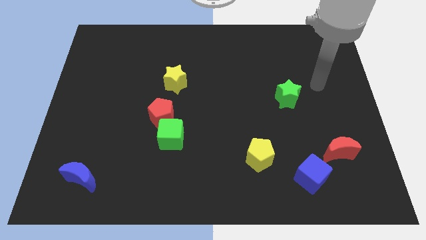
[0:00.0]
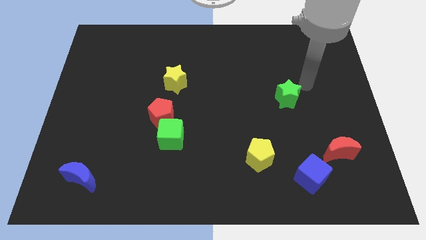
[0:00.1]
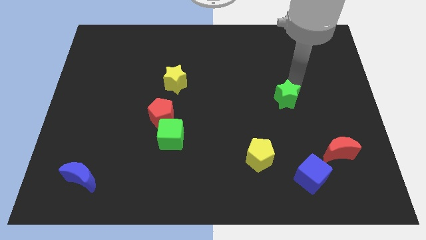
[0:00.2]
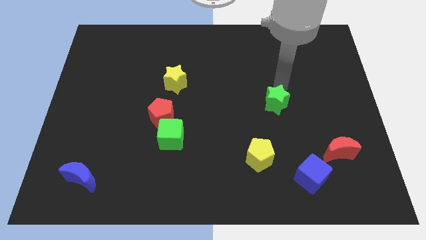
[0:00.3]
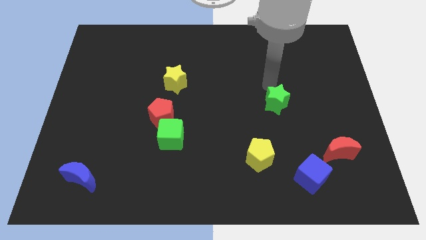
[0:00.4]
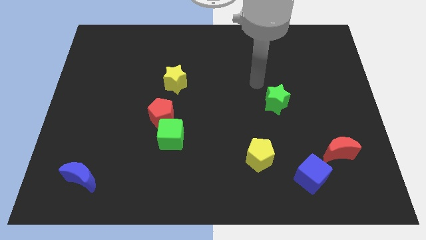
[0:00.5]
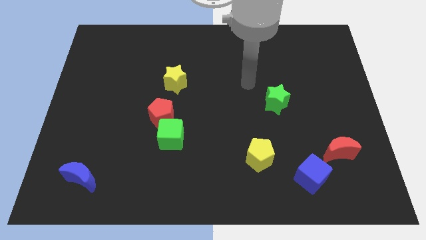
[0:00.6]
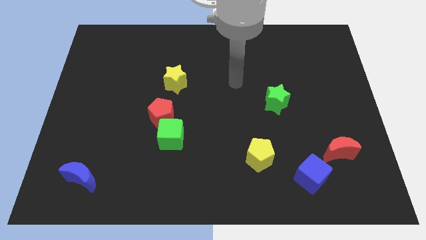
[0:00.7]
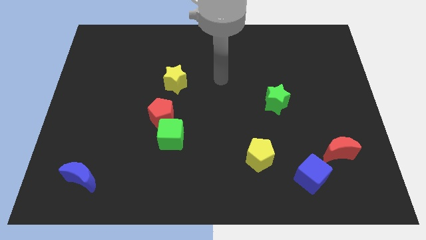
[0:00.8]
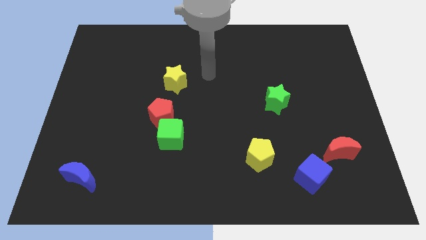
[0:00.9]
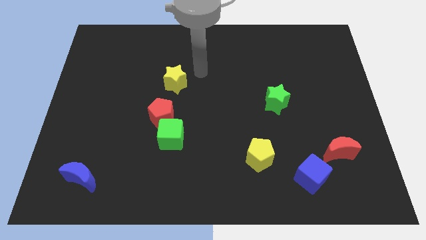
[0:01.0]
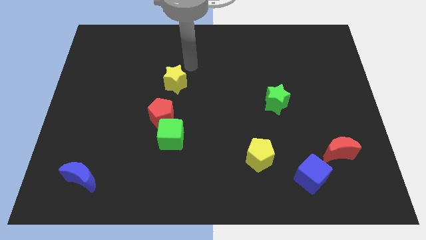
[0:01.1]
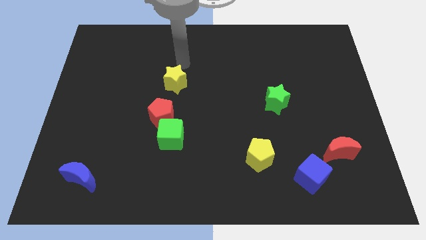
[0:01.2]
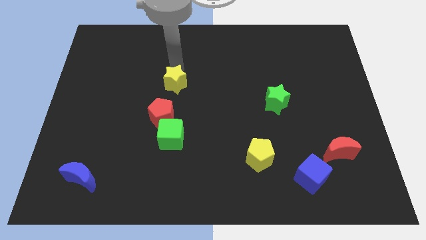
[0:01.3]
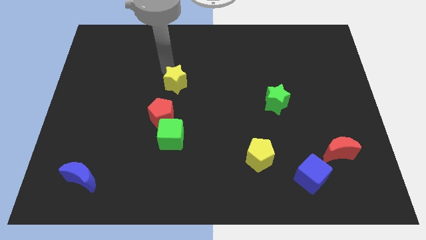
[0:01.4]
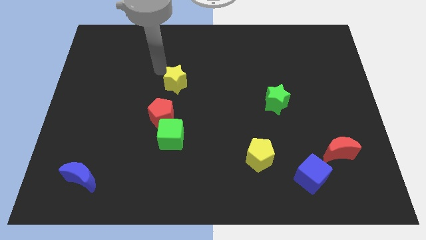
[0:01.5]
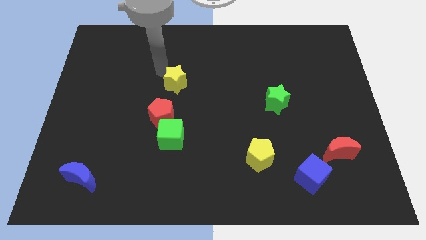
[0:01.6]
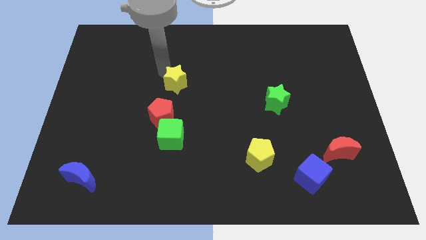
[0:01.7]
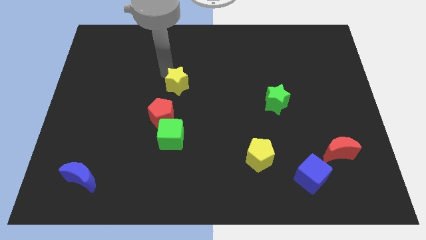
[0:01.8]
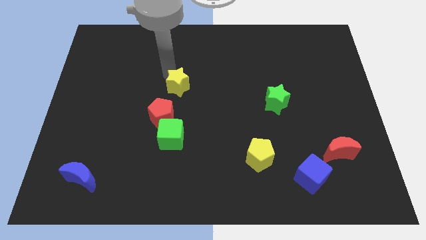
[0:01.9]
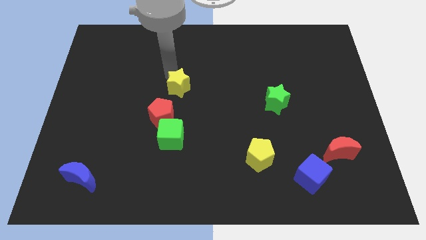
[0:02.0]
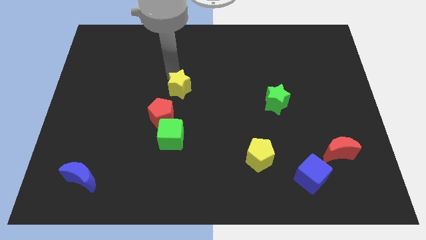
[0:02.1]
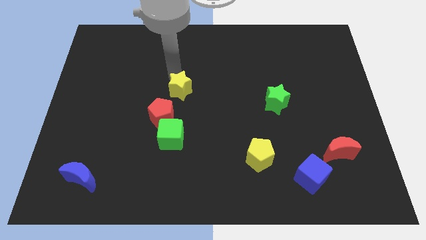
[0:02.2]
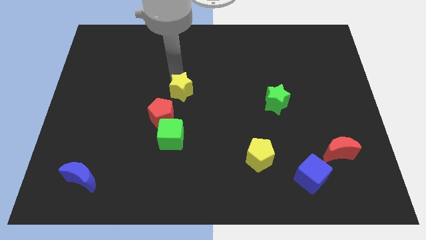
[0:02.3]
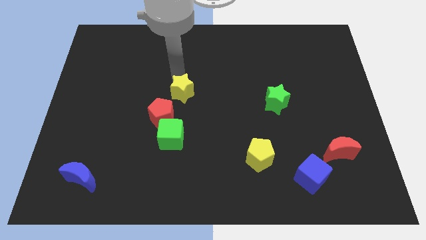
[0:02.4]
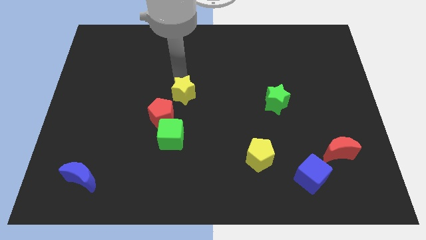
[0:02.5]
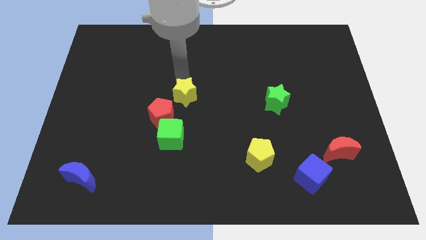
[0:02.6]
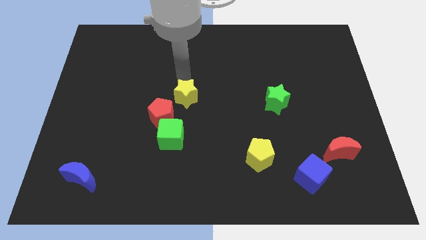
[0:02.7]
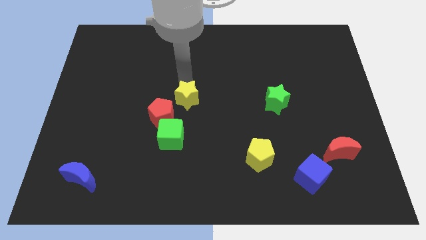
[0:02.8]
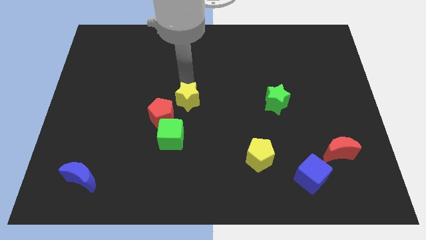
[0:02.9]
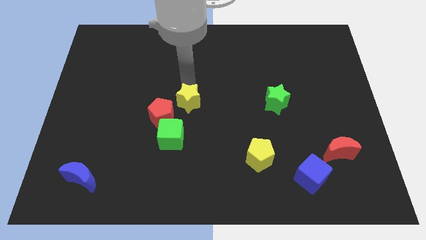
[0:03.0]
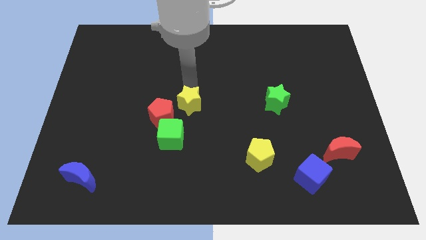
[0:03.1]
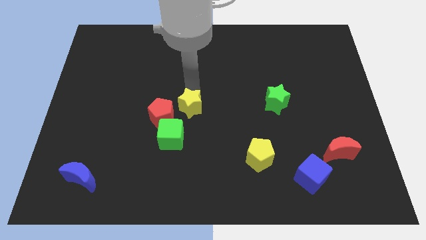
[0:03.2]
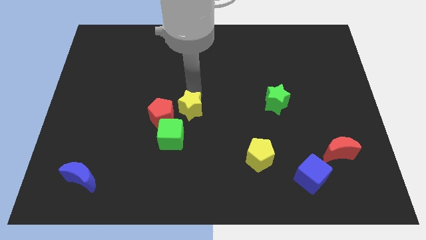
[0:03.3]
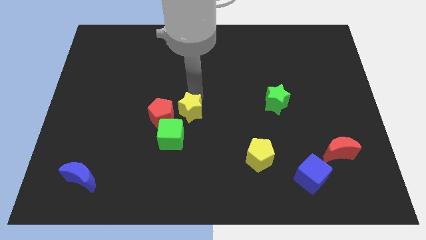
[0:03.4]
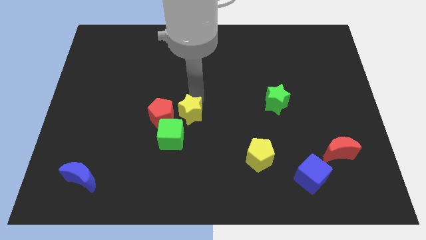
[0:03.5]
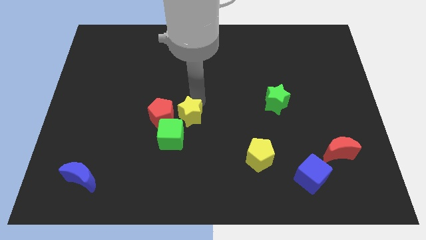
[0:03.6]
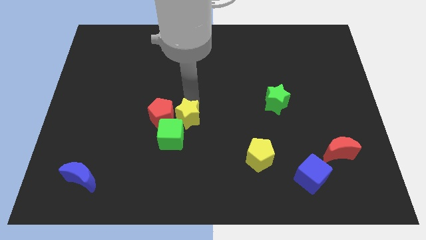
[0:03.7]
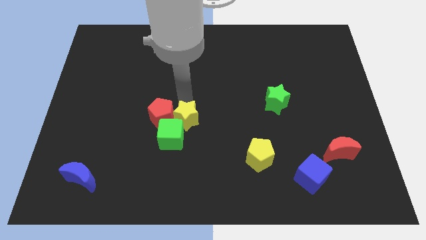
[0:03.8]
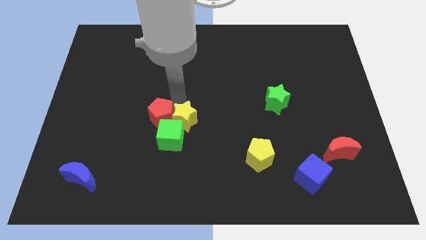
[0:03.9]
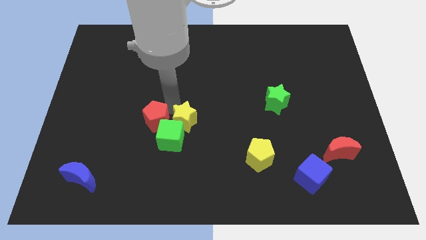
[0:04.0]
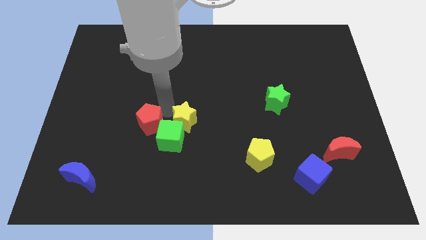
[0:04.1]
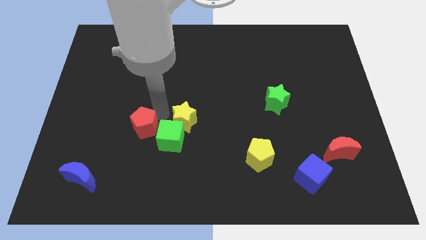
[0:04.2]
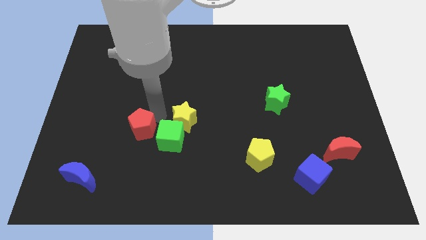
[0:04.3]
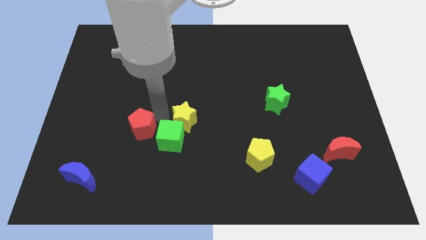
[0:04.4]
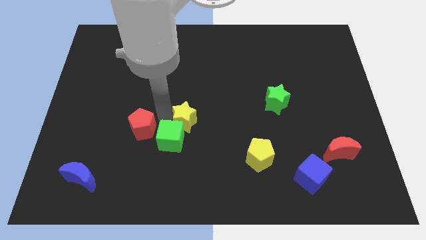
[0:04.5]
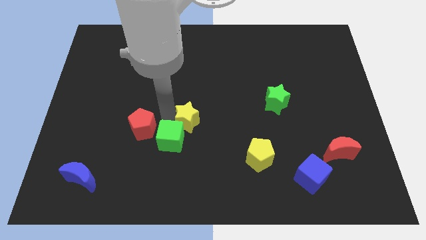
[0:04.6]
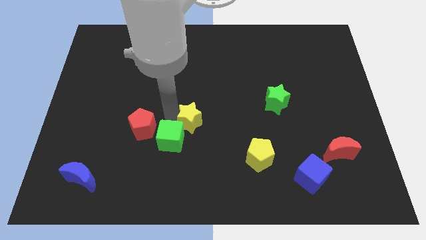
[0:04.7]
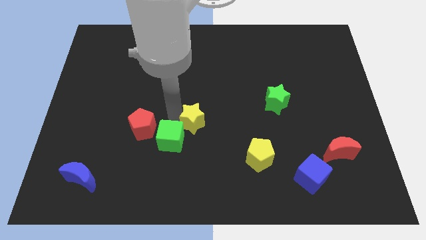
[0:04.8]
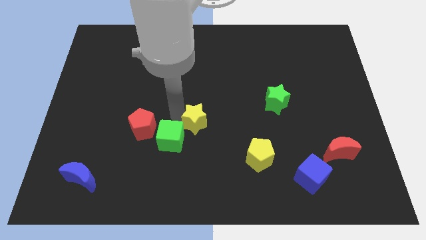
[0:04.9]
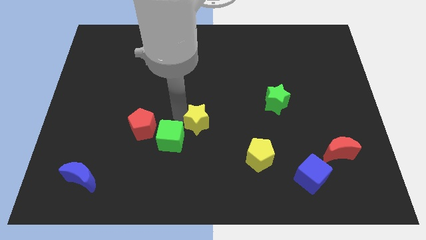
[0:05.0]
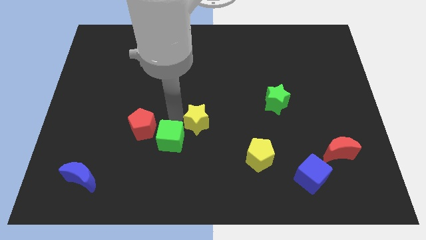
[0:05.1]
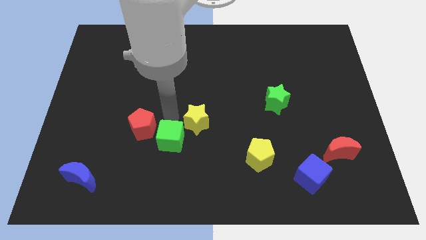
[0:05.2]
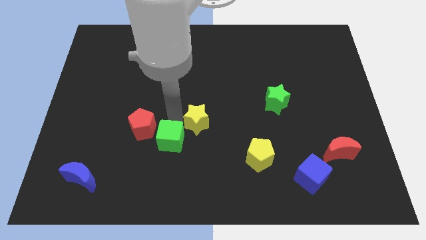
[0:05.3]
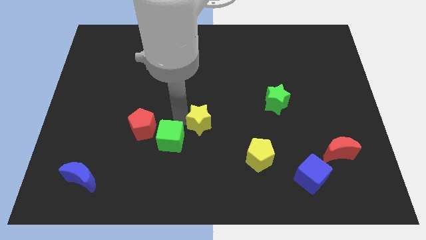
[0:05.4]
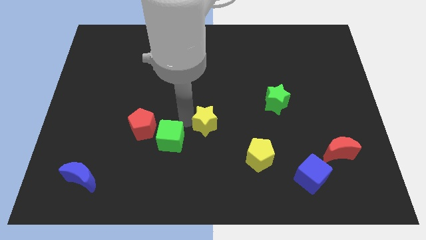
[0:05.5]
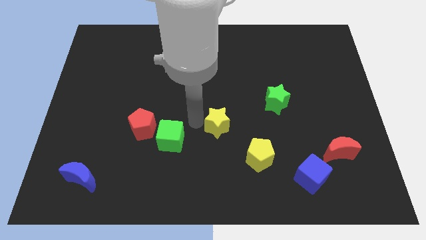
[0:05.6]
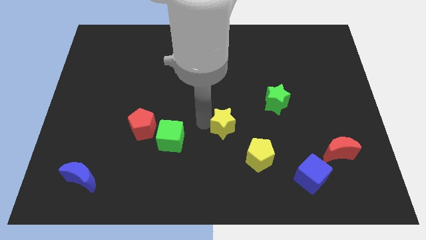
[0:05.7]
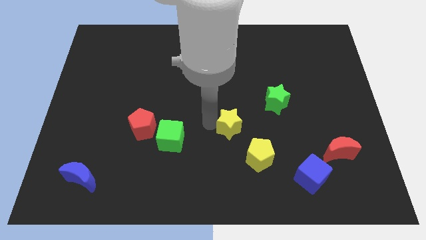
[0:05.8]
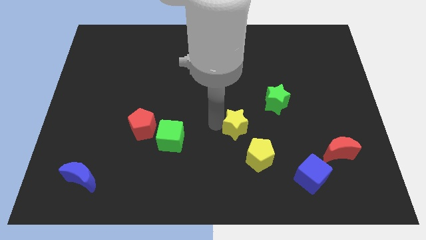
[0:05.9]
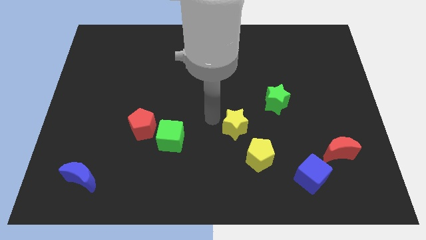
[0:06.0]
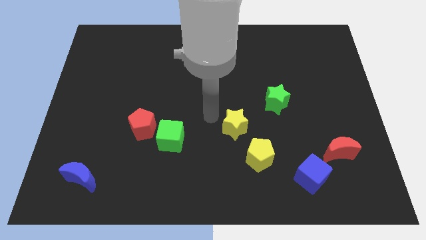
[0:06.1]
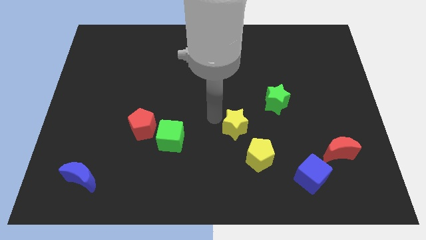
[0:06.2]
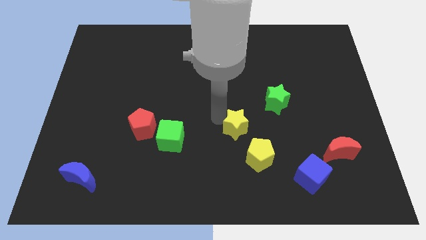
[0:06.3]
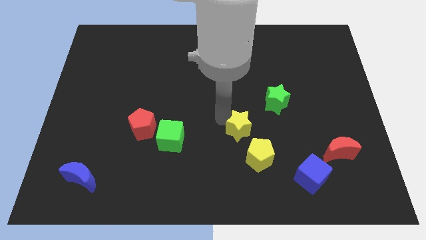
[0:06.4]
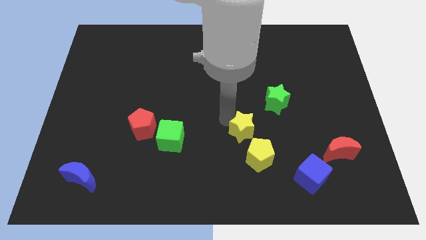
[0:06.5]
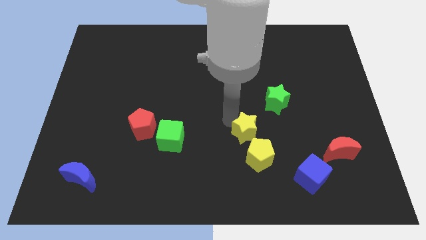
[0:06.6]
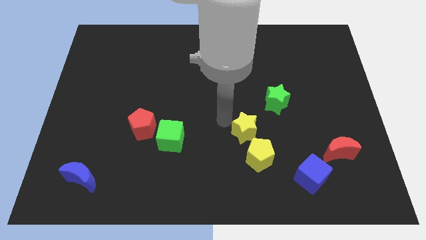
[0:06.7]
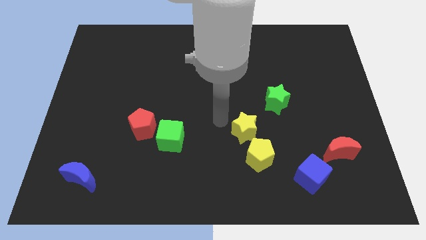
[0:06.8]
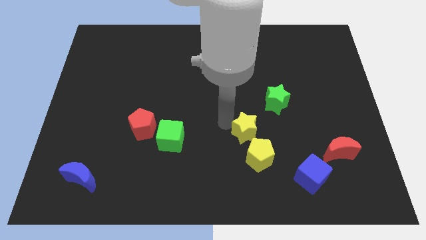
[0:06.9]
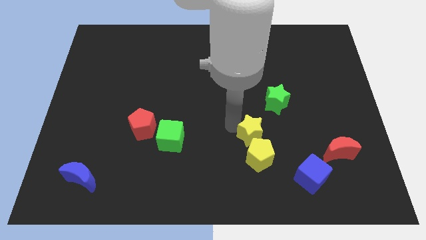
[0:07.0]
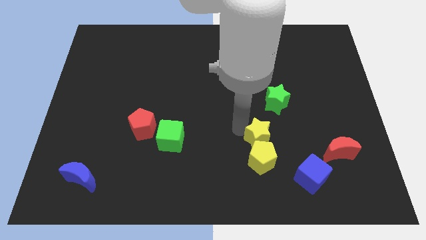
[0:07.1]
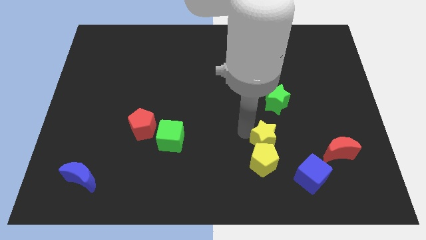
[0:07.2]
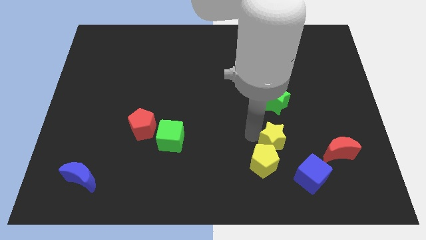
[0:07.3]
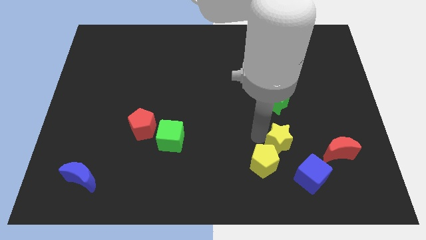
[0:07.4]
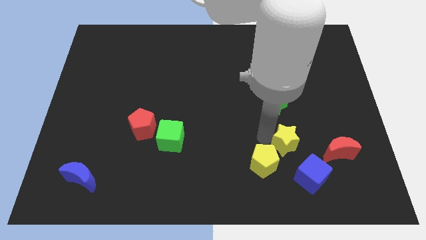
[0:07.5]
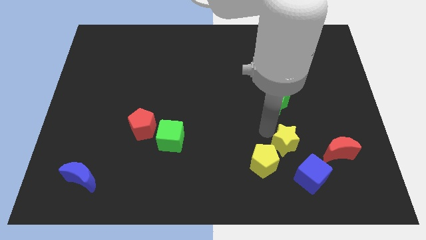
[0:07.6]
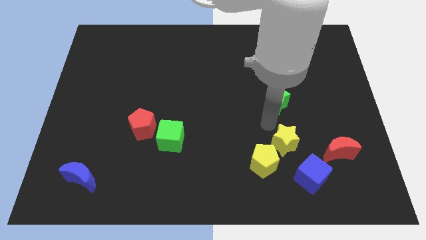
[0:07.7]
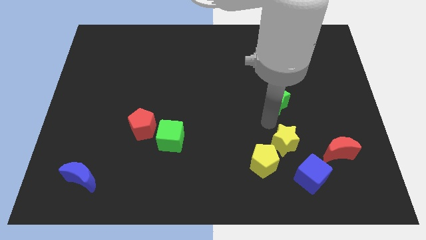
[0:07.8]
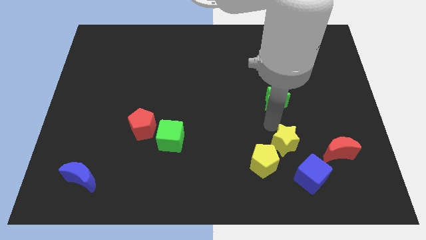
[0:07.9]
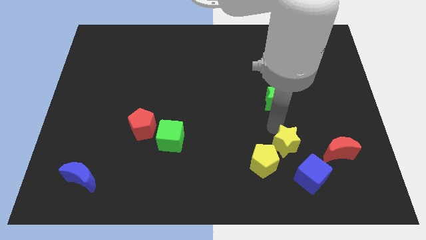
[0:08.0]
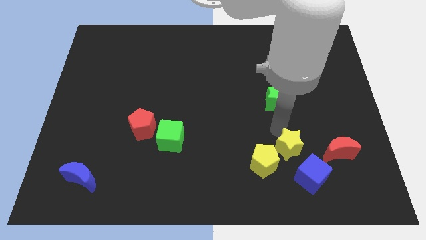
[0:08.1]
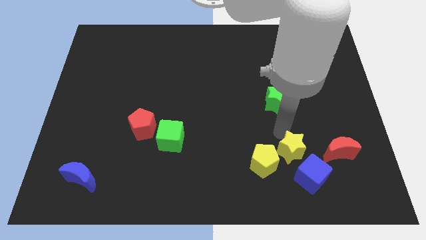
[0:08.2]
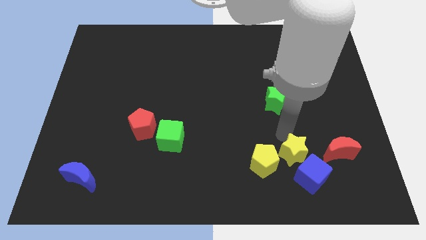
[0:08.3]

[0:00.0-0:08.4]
slide the yellow star towards the blue cube
